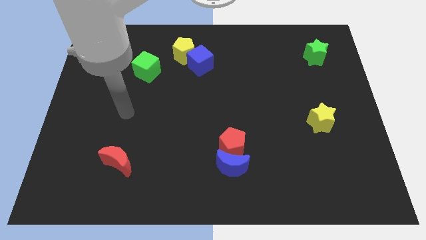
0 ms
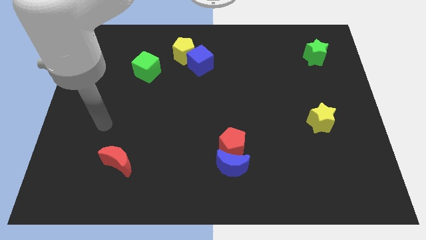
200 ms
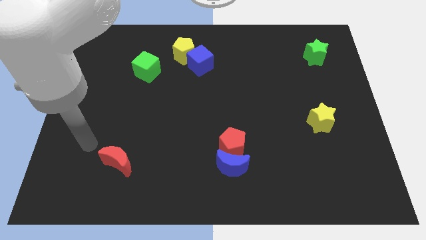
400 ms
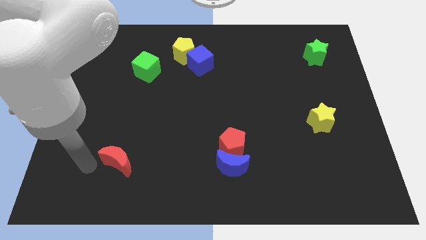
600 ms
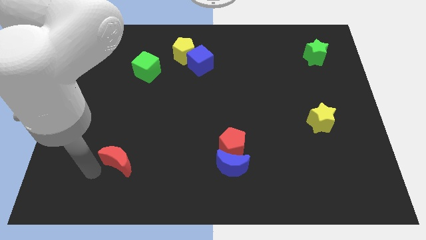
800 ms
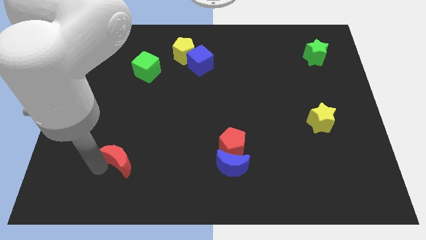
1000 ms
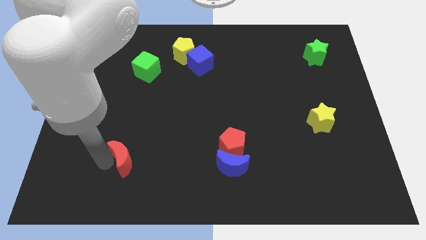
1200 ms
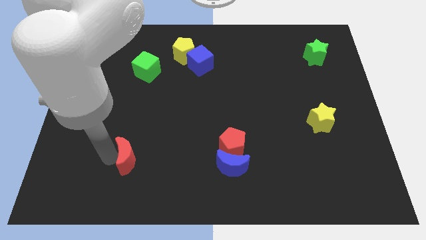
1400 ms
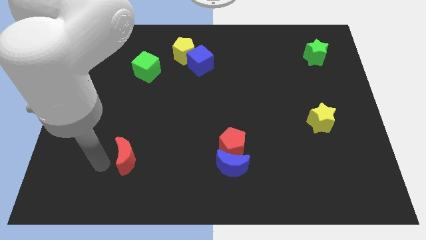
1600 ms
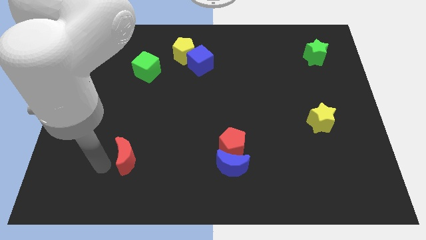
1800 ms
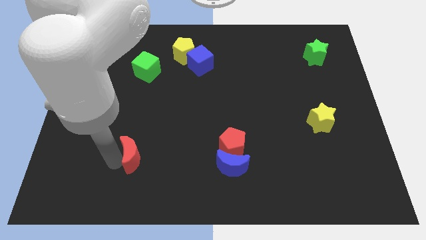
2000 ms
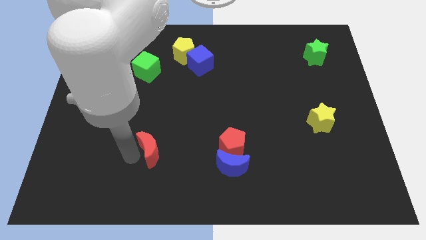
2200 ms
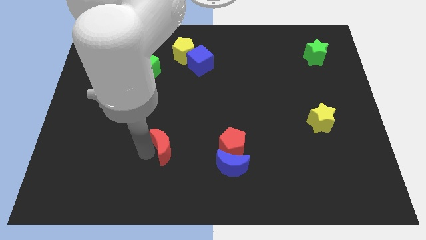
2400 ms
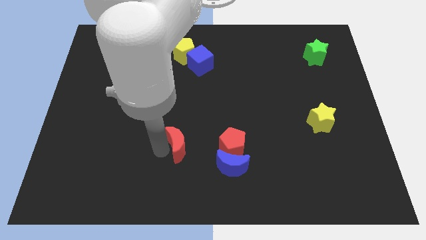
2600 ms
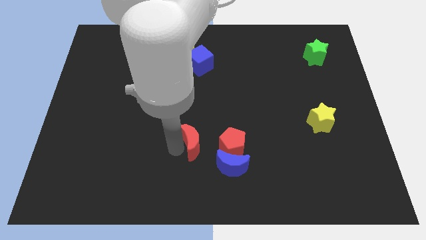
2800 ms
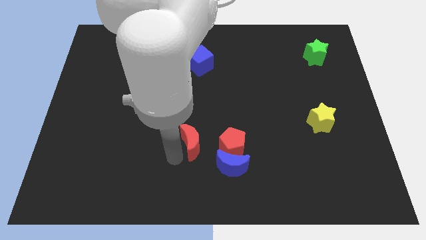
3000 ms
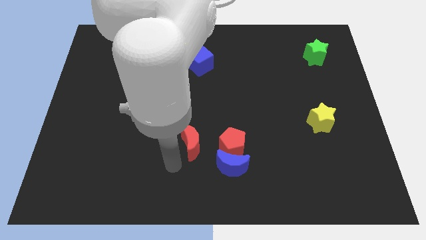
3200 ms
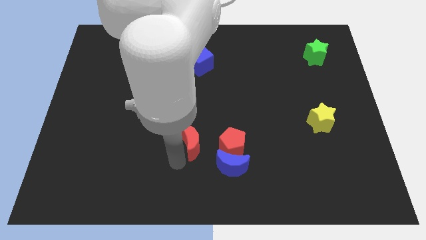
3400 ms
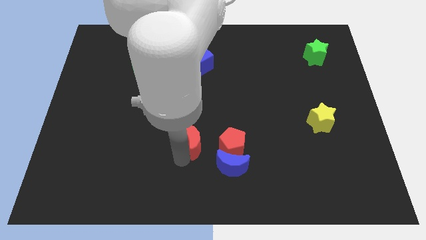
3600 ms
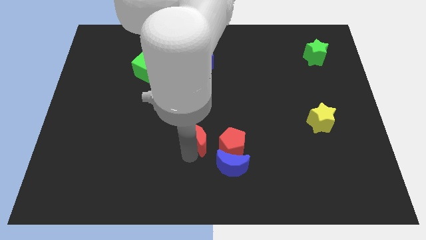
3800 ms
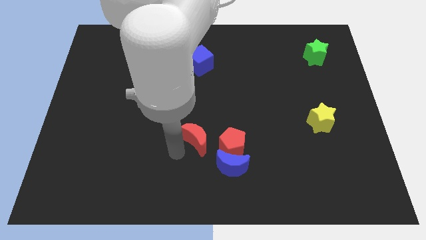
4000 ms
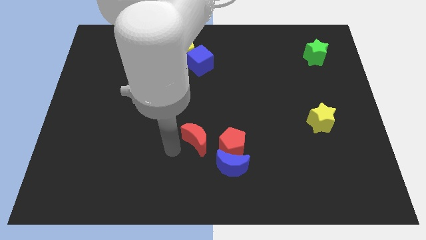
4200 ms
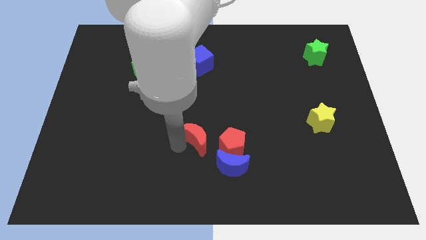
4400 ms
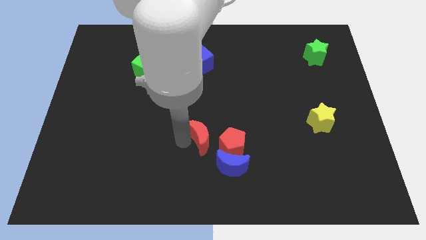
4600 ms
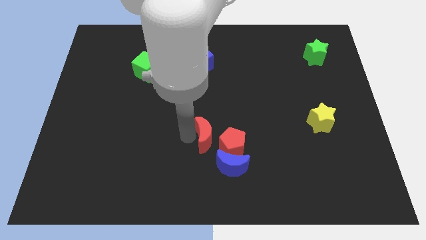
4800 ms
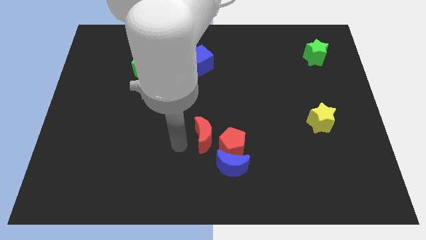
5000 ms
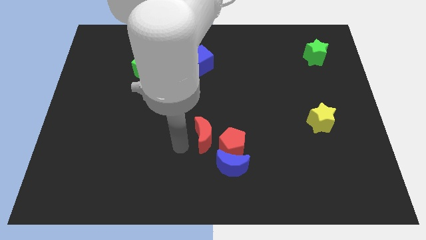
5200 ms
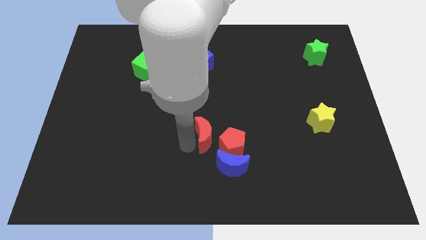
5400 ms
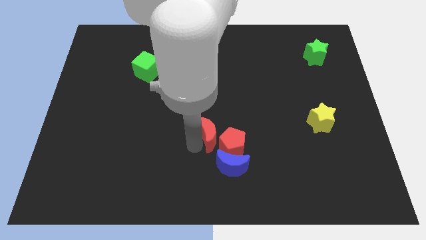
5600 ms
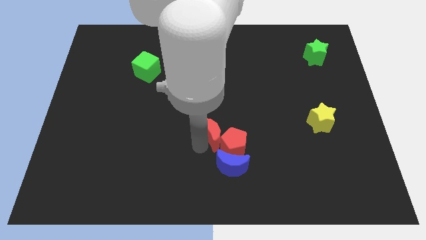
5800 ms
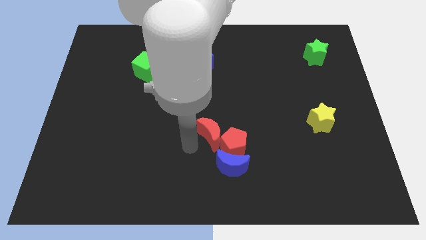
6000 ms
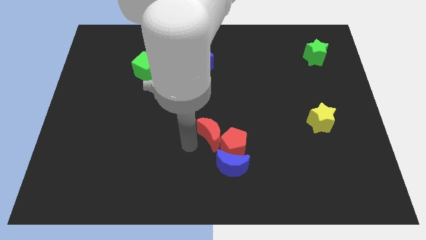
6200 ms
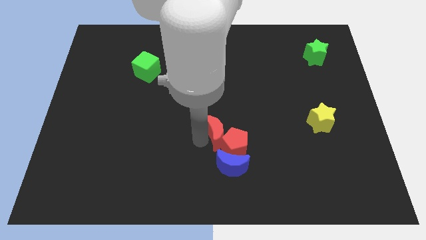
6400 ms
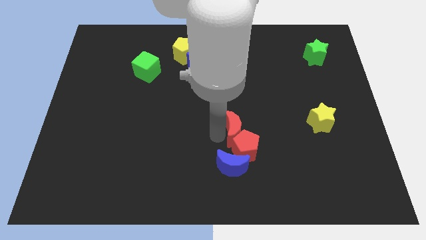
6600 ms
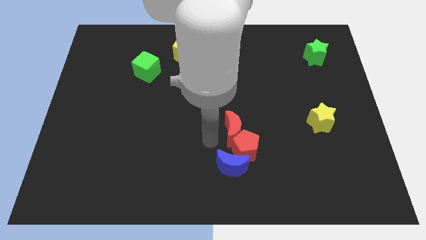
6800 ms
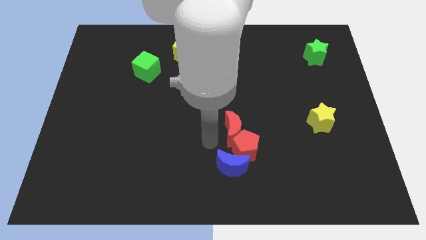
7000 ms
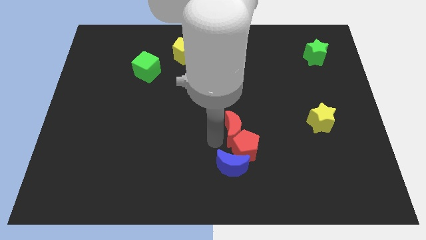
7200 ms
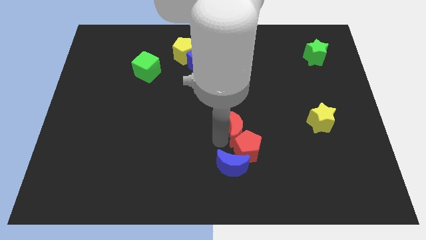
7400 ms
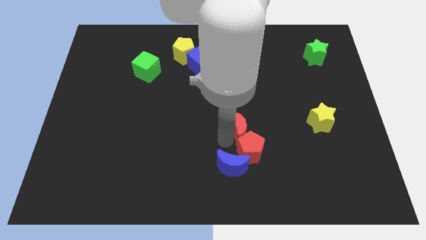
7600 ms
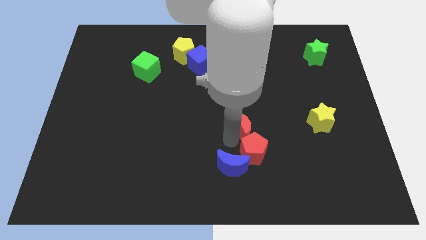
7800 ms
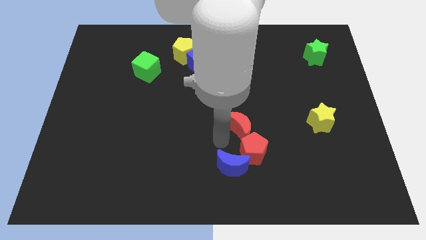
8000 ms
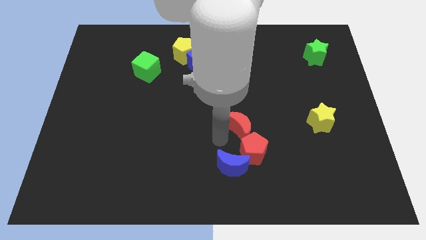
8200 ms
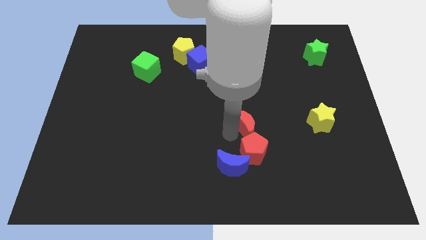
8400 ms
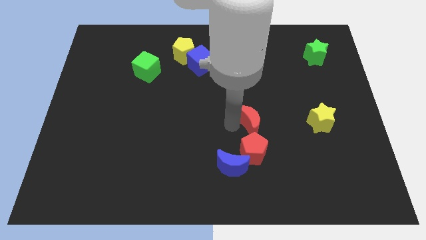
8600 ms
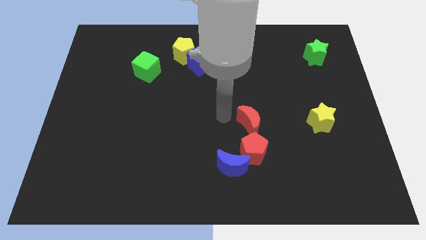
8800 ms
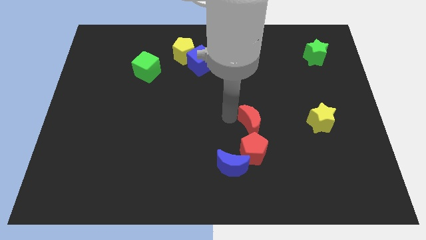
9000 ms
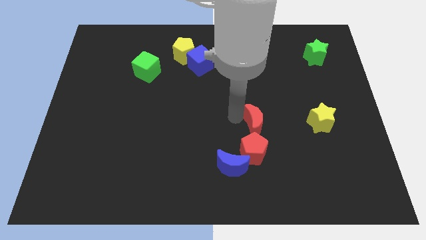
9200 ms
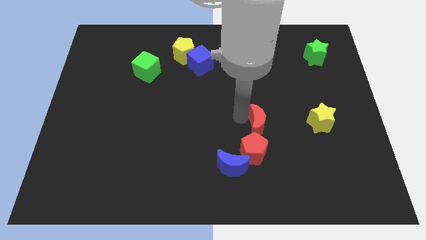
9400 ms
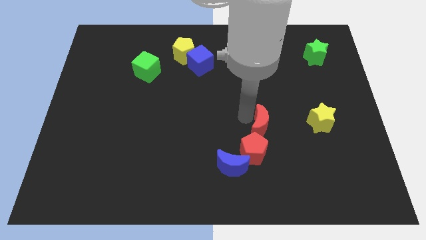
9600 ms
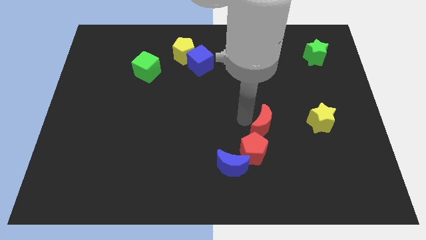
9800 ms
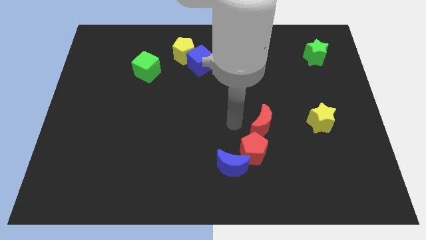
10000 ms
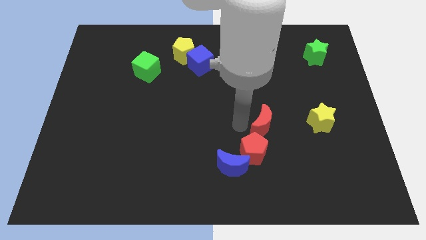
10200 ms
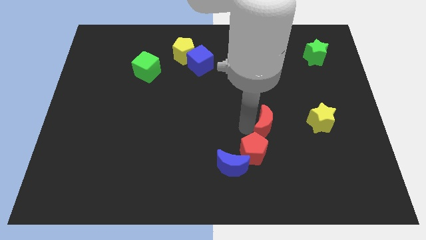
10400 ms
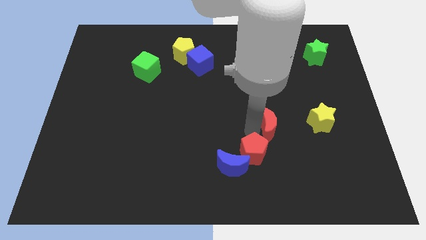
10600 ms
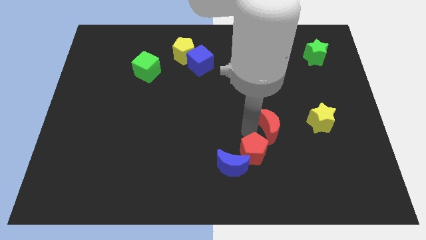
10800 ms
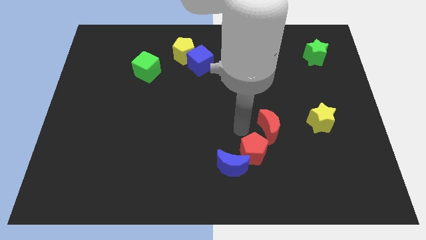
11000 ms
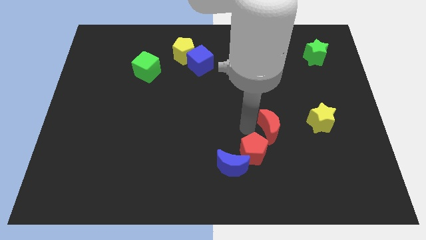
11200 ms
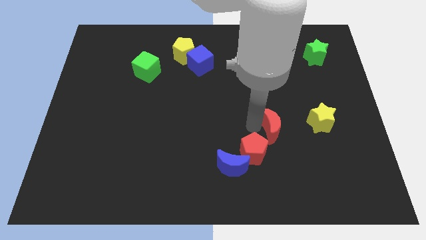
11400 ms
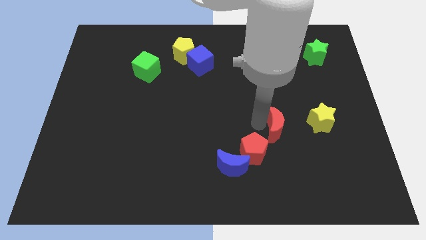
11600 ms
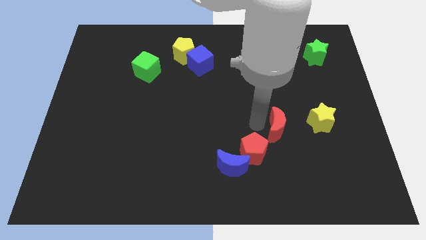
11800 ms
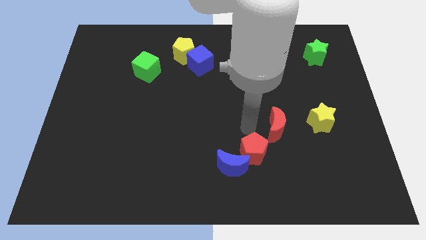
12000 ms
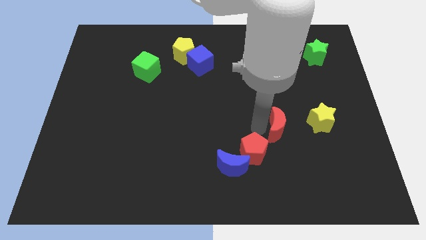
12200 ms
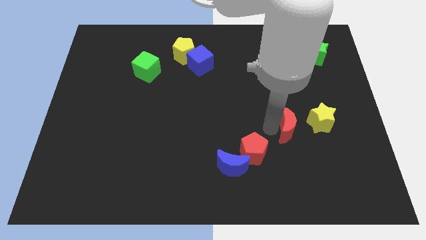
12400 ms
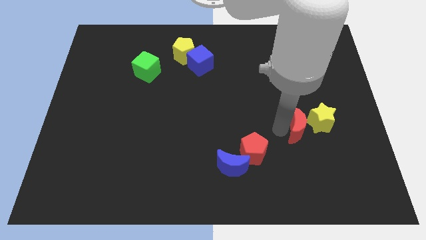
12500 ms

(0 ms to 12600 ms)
put the red moon close to the yellow star
